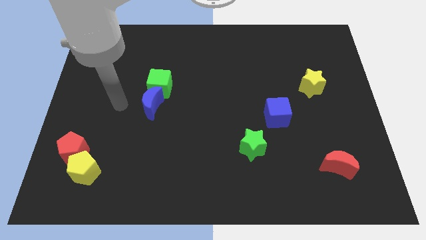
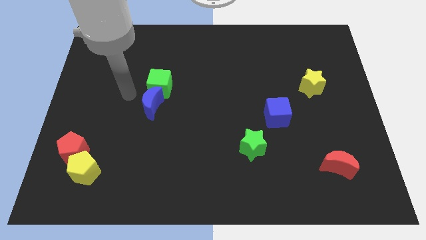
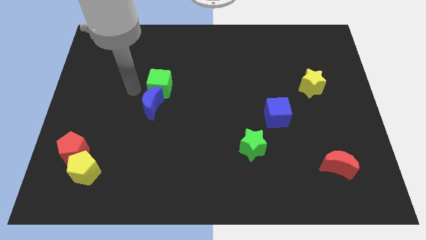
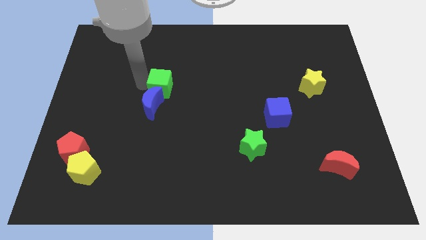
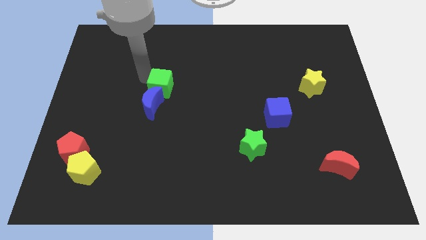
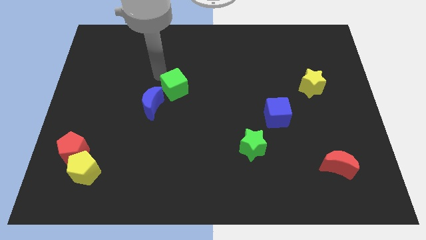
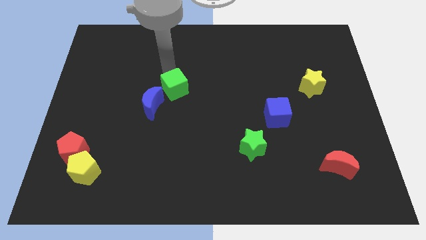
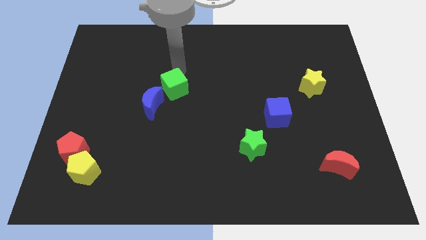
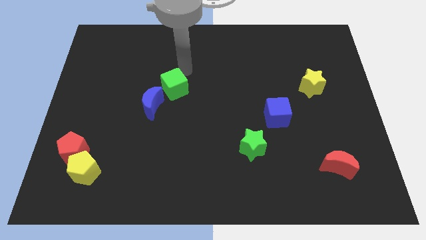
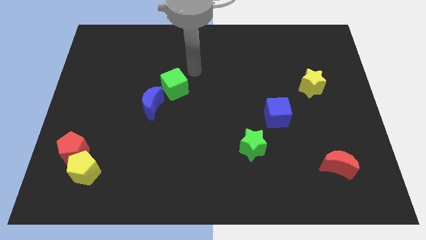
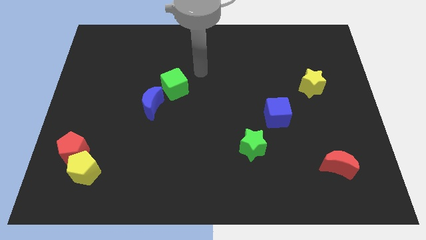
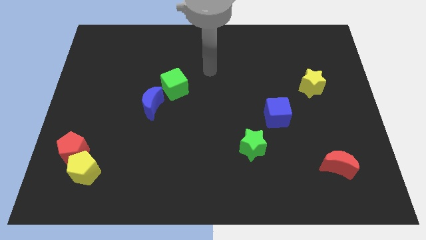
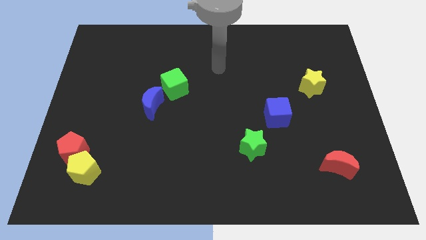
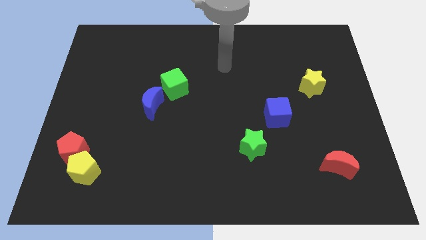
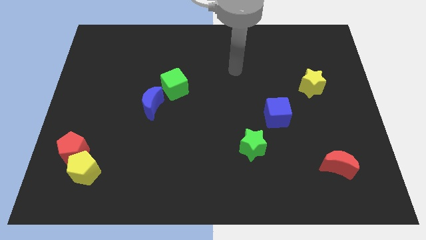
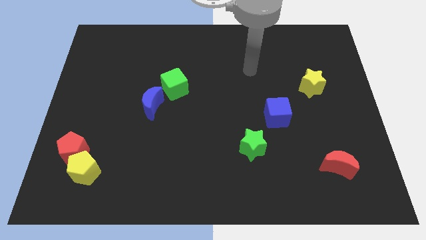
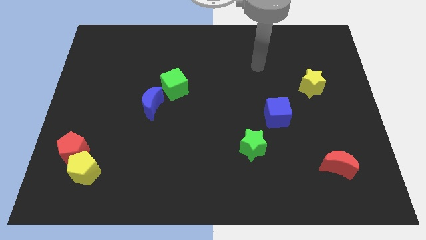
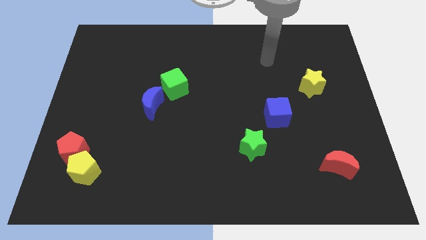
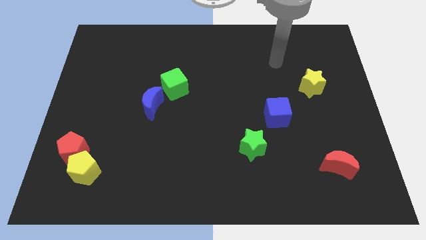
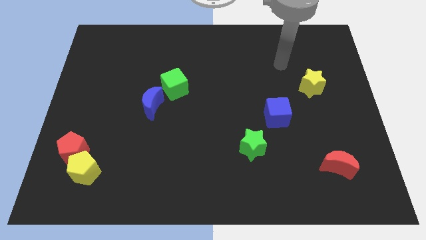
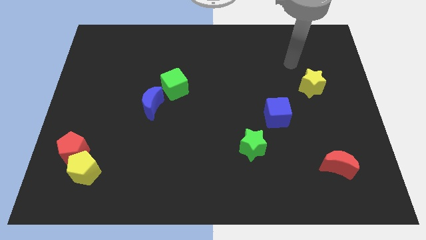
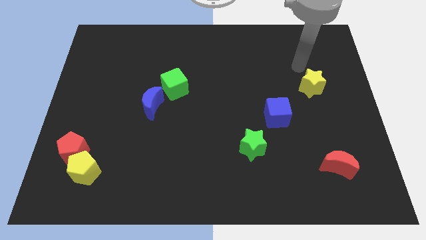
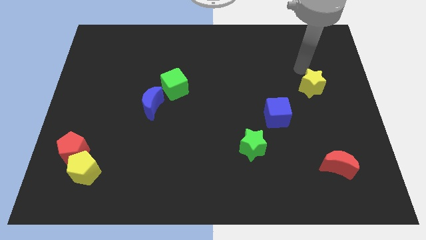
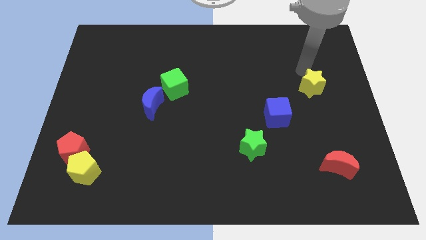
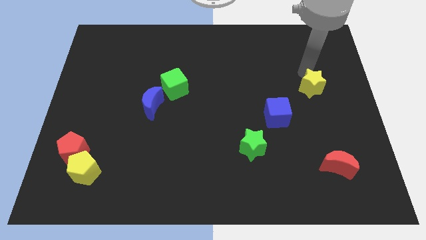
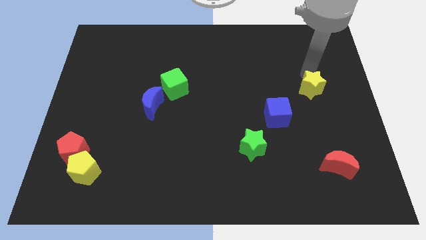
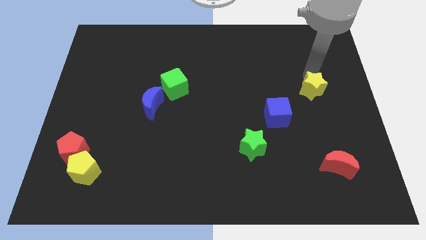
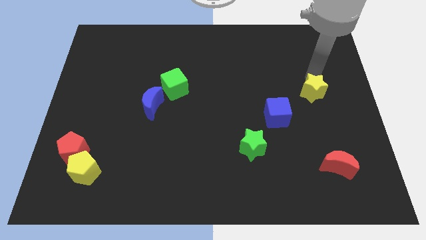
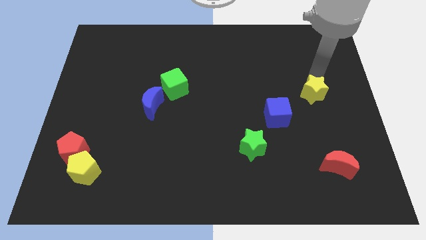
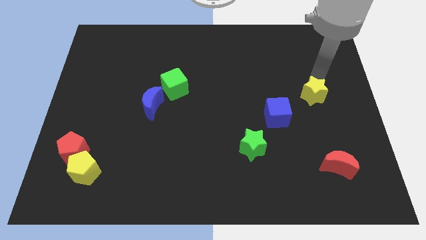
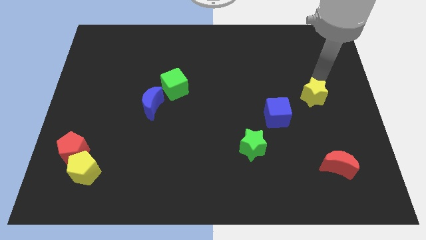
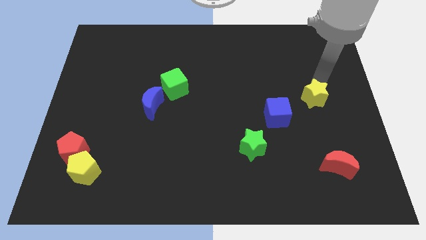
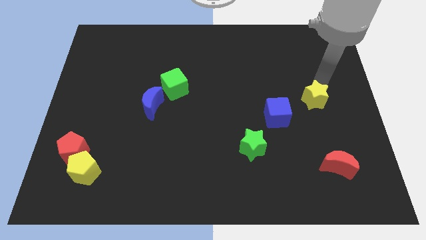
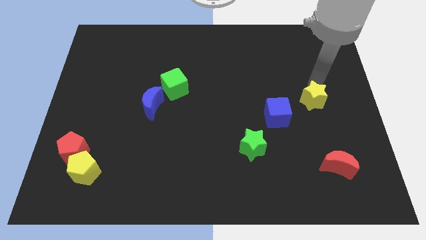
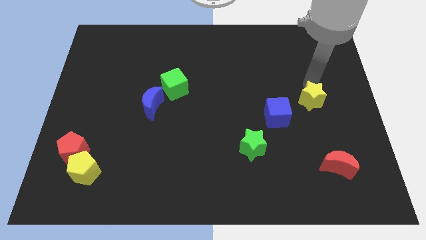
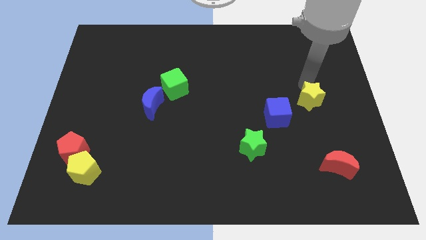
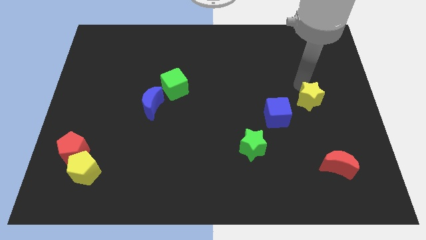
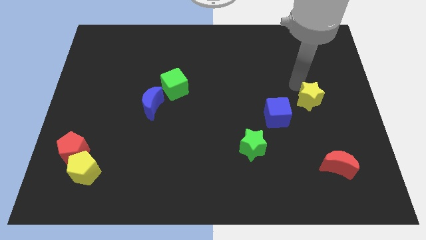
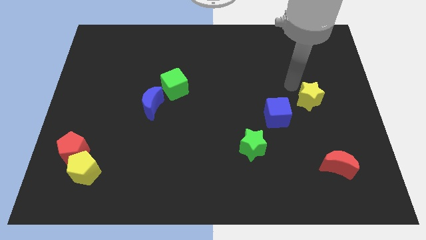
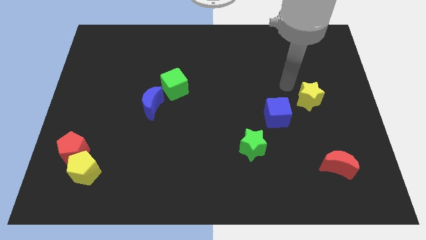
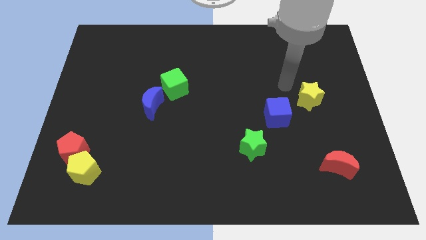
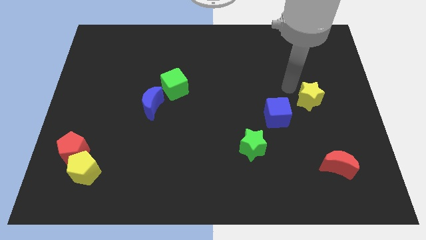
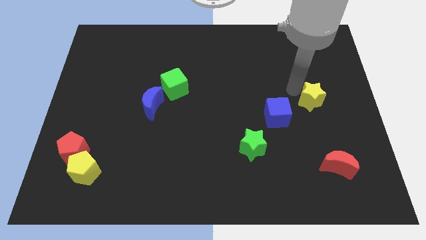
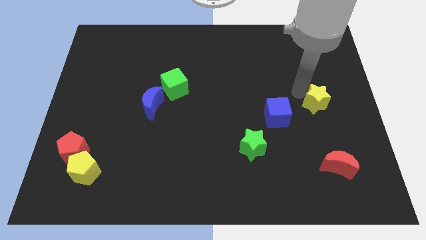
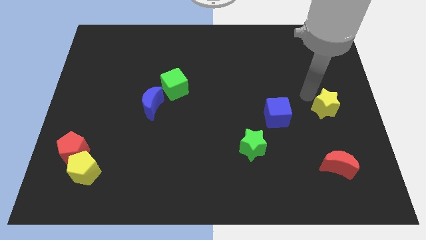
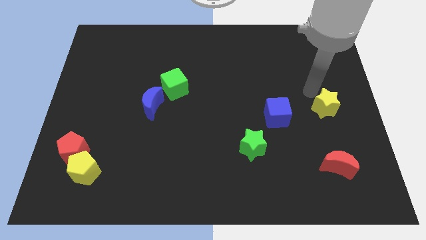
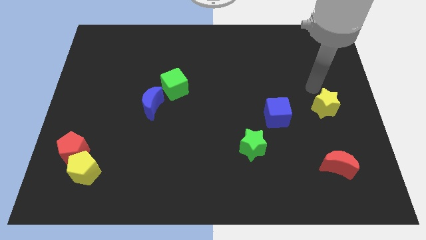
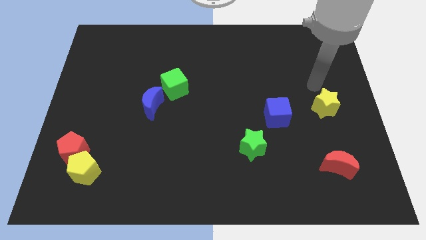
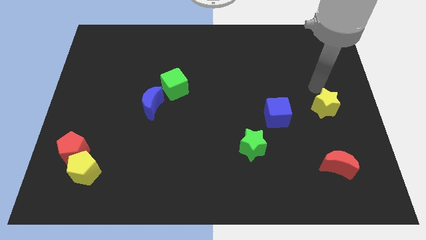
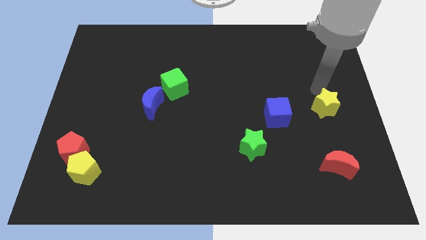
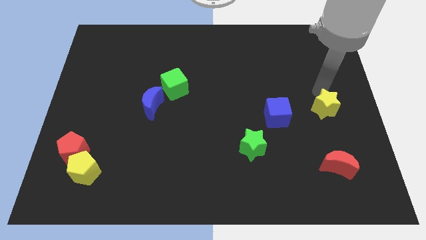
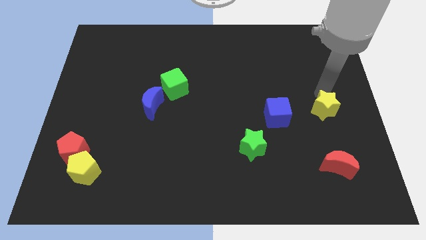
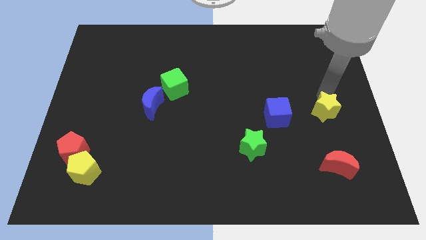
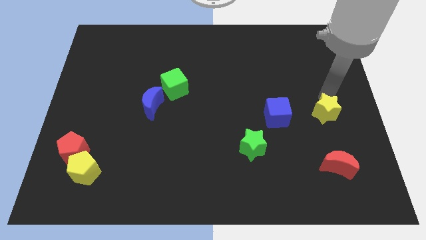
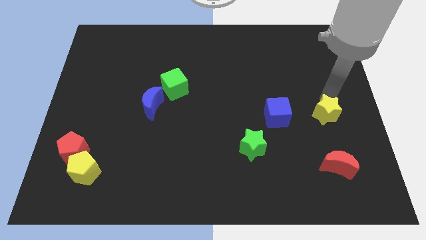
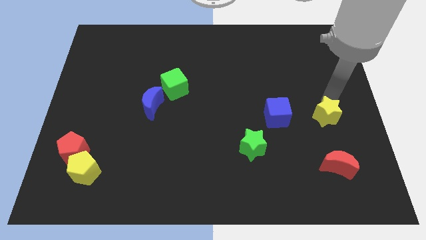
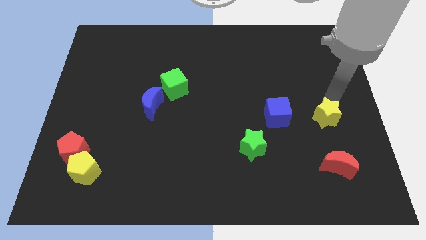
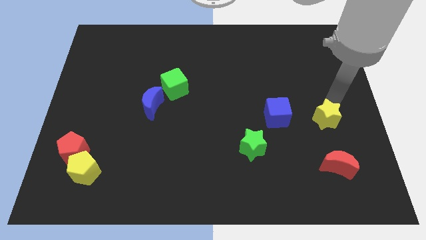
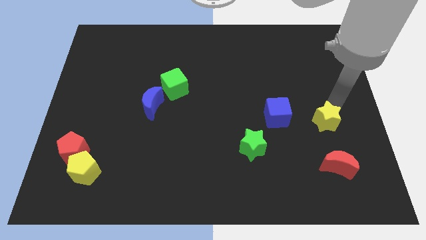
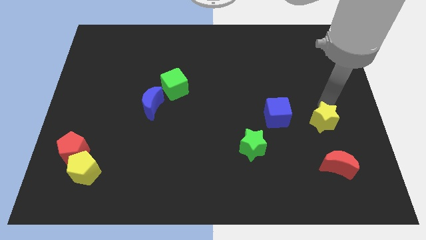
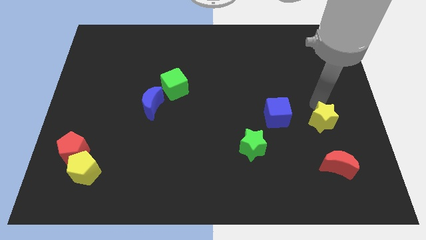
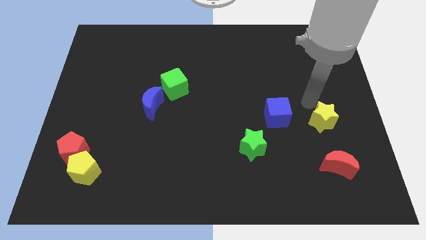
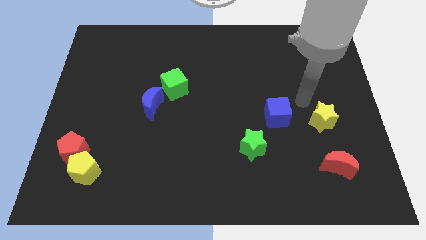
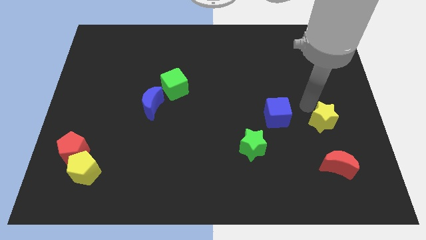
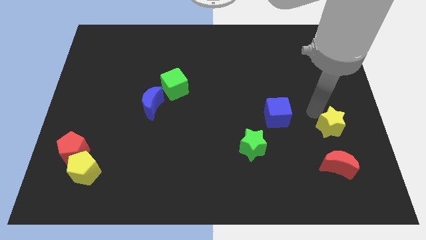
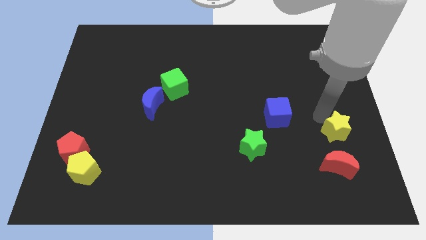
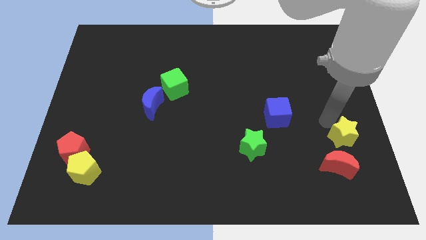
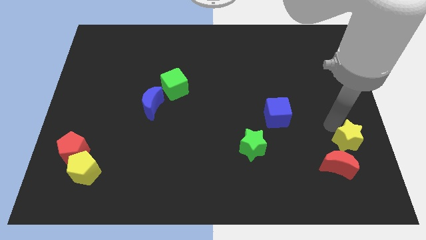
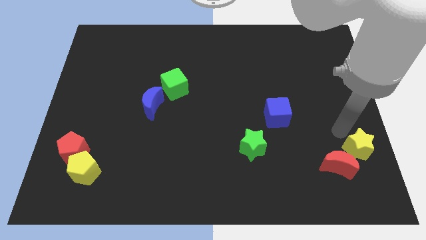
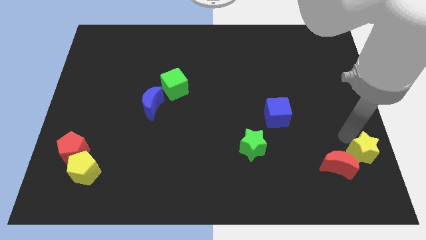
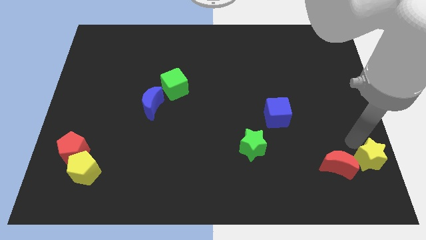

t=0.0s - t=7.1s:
put the yellow star to the bottom right
